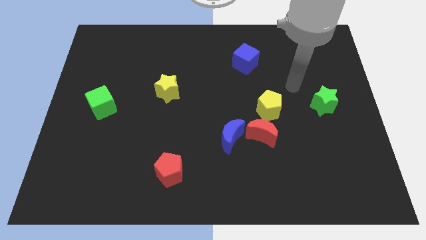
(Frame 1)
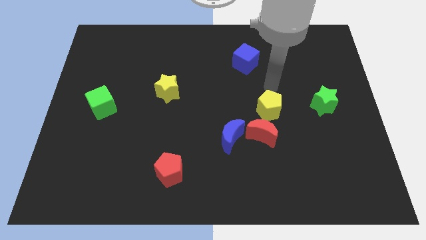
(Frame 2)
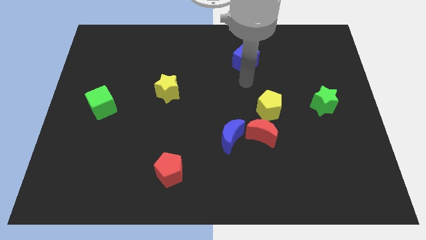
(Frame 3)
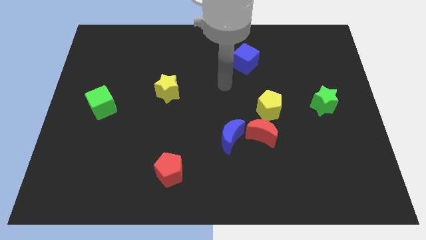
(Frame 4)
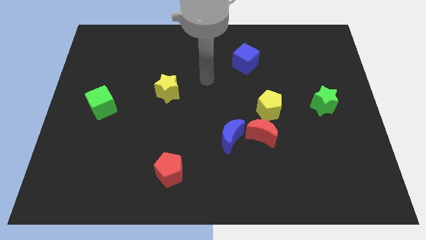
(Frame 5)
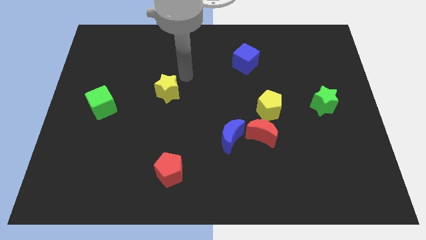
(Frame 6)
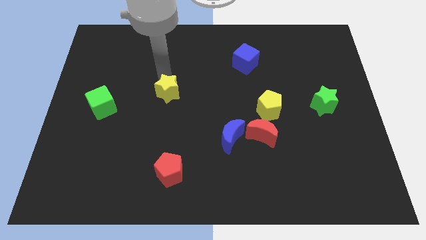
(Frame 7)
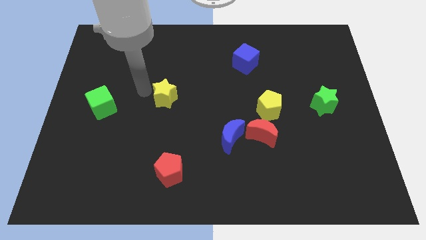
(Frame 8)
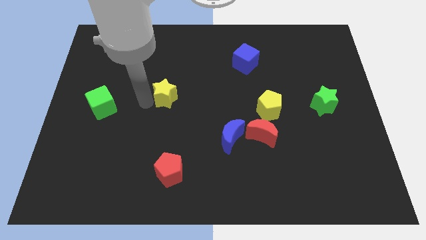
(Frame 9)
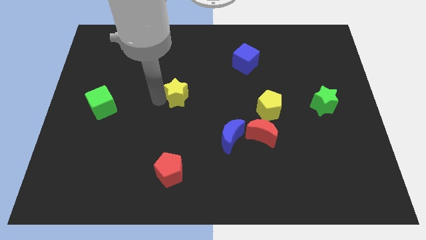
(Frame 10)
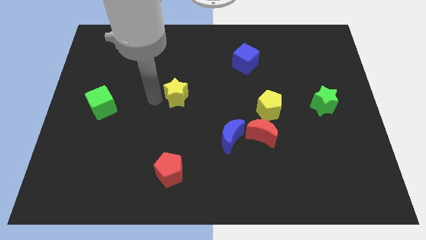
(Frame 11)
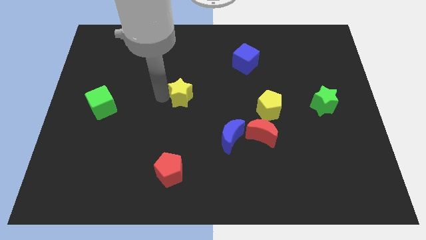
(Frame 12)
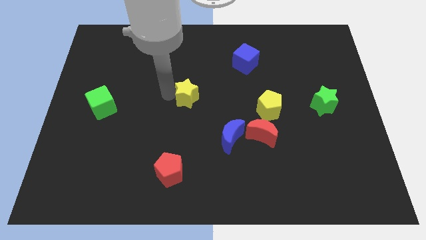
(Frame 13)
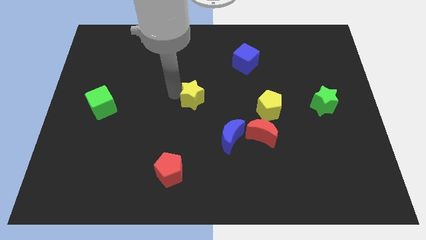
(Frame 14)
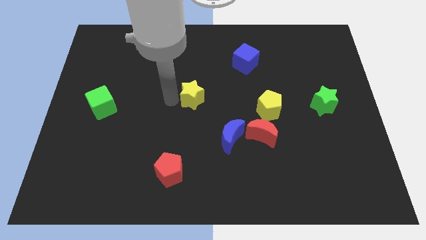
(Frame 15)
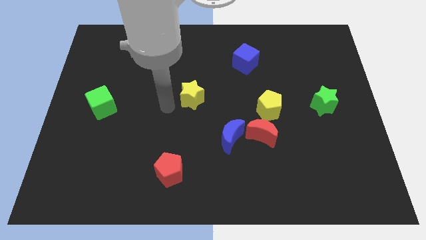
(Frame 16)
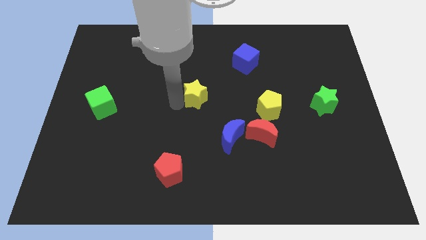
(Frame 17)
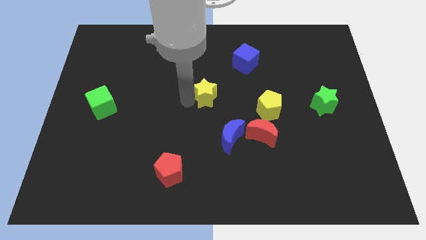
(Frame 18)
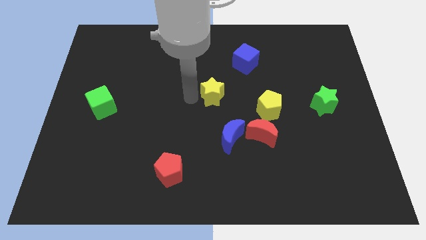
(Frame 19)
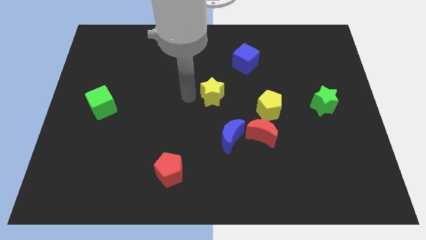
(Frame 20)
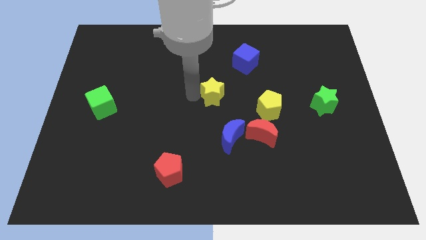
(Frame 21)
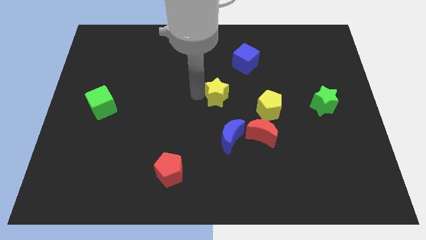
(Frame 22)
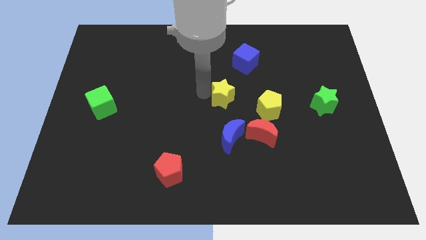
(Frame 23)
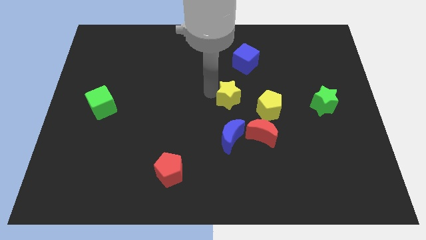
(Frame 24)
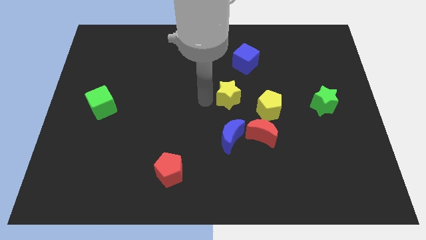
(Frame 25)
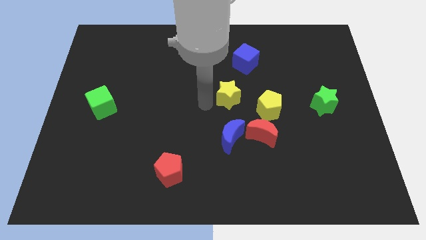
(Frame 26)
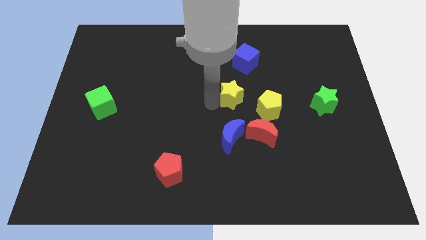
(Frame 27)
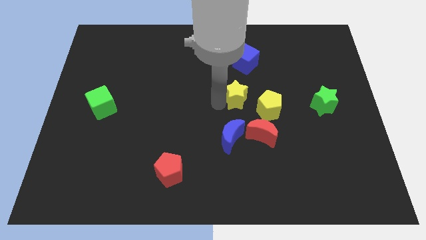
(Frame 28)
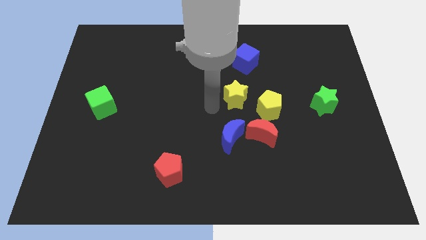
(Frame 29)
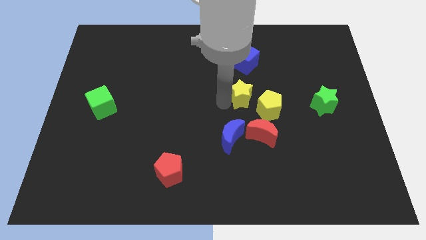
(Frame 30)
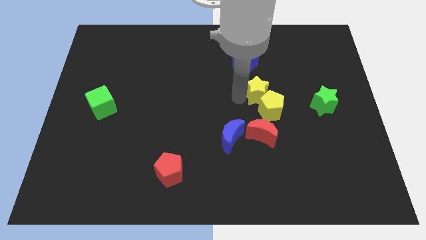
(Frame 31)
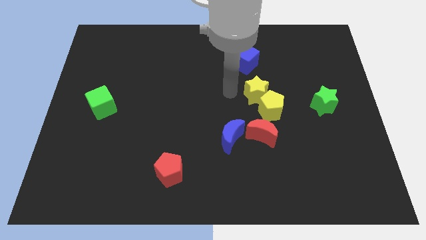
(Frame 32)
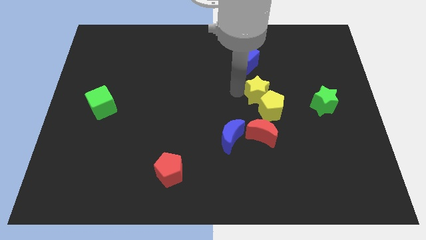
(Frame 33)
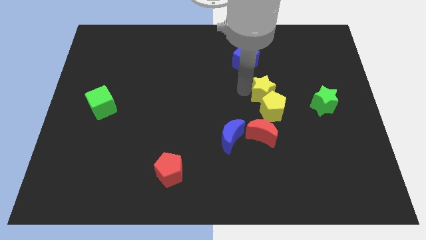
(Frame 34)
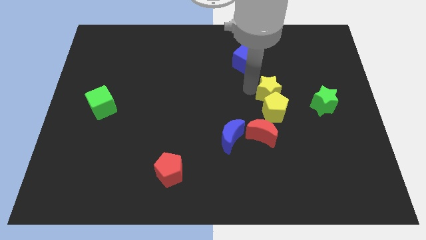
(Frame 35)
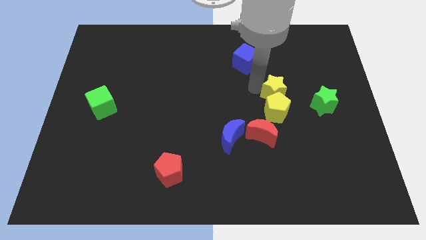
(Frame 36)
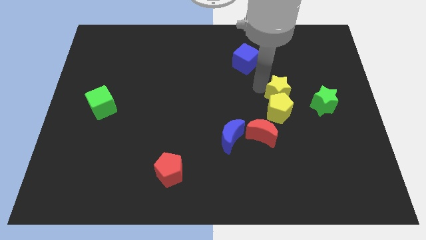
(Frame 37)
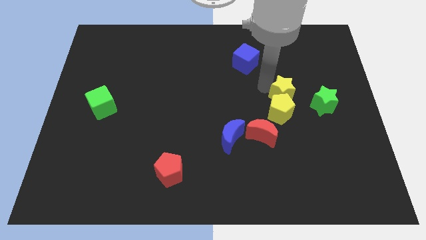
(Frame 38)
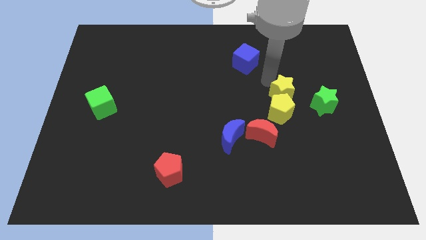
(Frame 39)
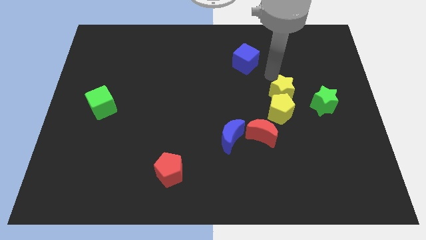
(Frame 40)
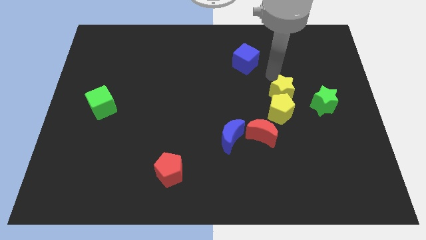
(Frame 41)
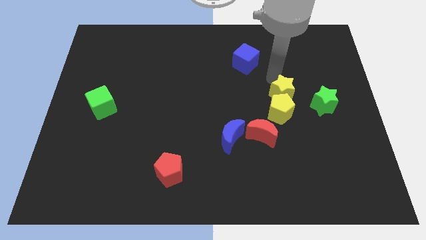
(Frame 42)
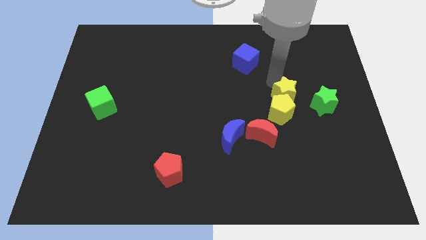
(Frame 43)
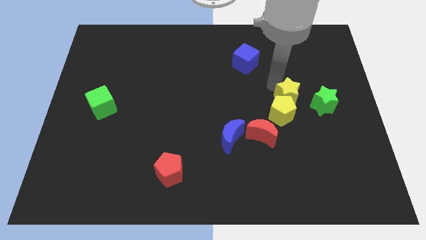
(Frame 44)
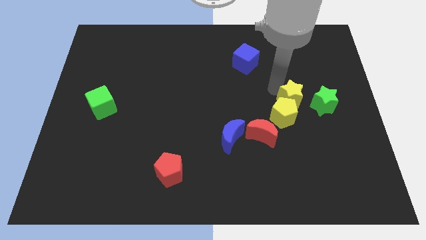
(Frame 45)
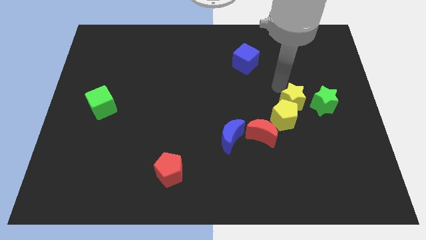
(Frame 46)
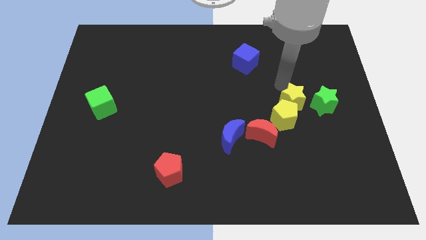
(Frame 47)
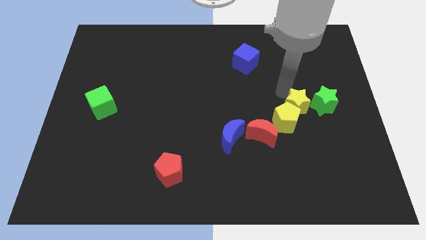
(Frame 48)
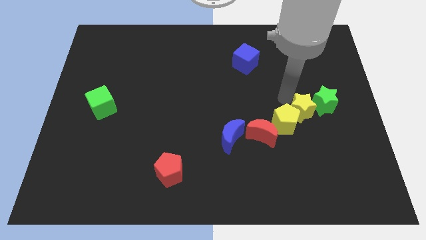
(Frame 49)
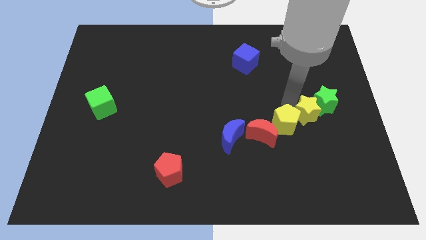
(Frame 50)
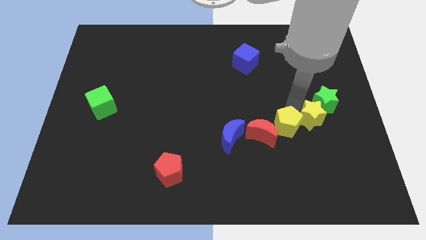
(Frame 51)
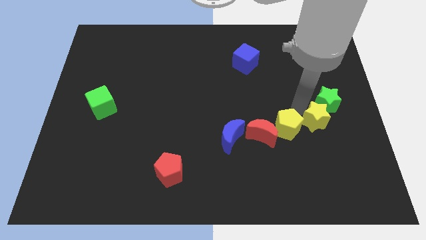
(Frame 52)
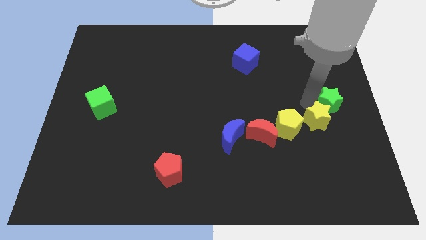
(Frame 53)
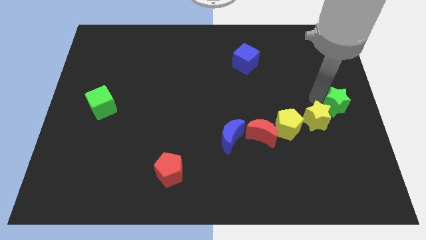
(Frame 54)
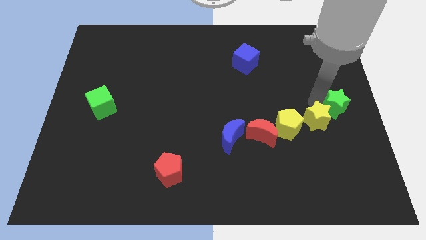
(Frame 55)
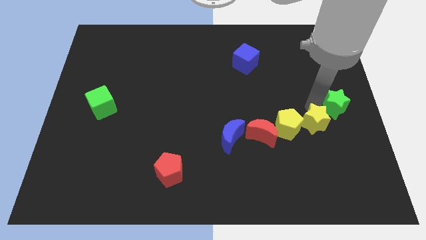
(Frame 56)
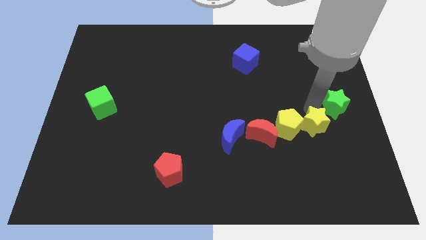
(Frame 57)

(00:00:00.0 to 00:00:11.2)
move the yellow star to the bottom right side of the yellow pentagon

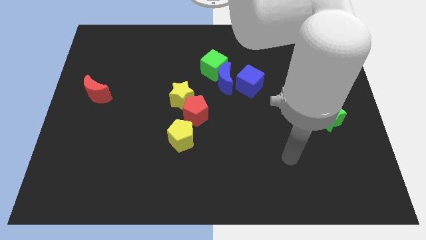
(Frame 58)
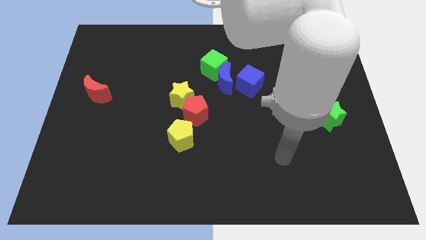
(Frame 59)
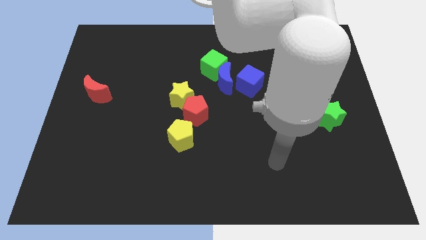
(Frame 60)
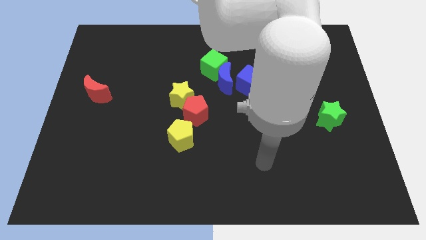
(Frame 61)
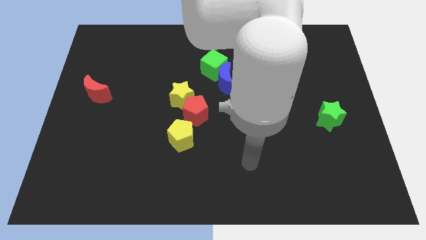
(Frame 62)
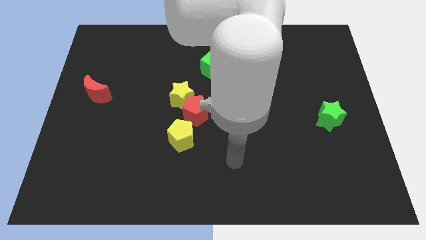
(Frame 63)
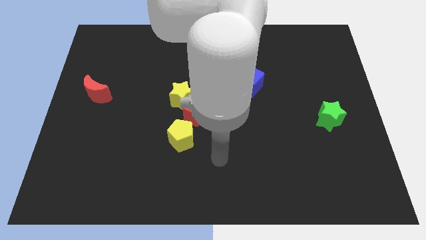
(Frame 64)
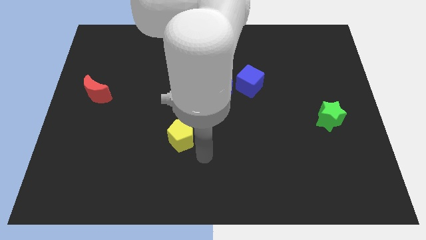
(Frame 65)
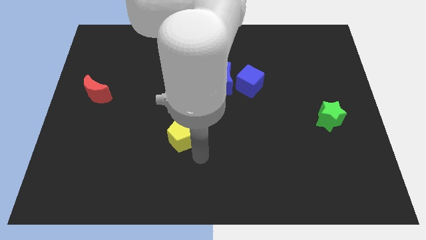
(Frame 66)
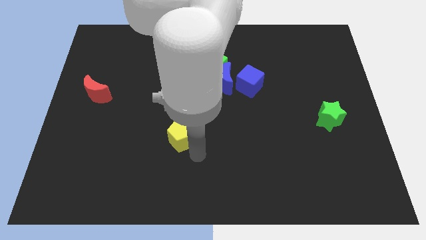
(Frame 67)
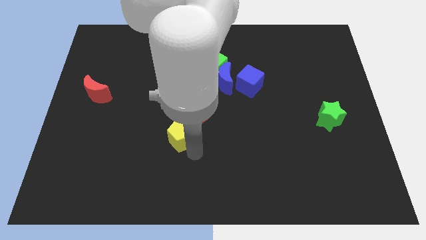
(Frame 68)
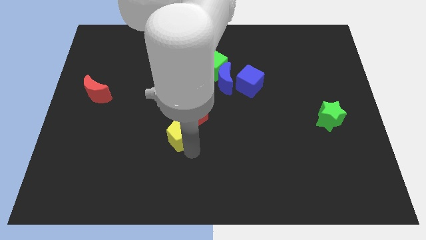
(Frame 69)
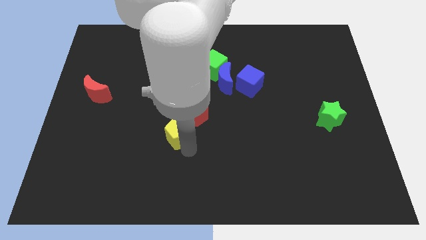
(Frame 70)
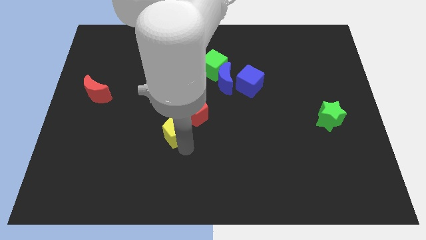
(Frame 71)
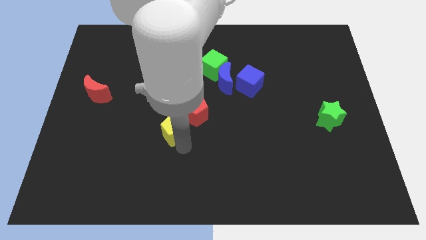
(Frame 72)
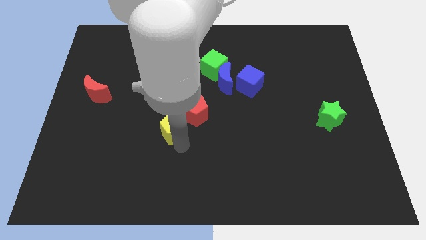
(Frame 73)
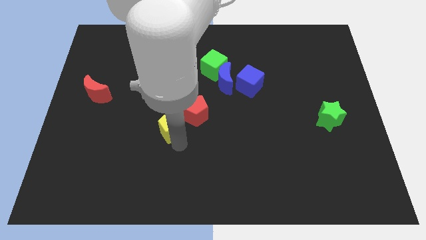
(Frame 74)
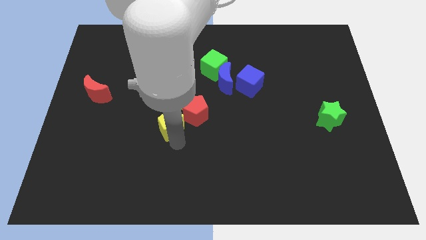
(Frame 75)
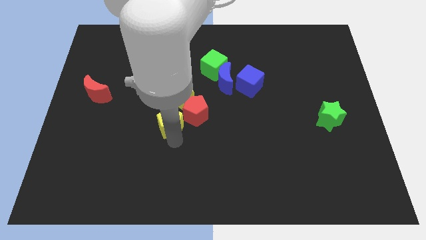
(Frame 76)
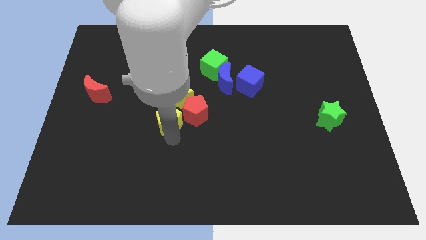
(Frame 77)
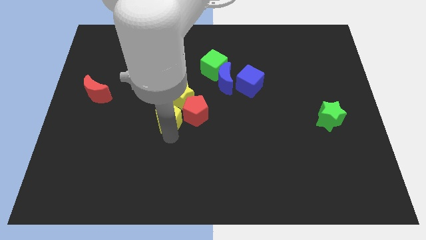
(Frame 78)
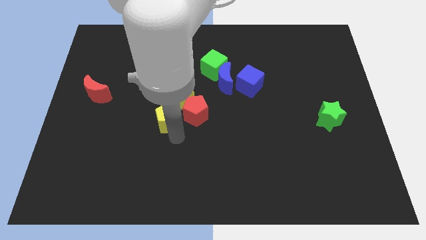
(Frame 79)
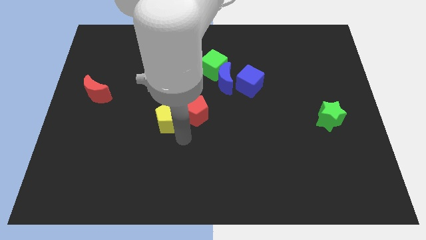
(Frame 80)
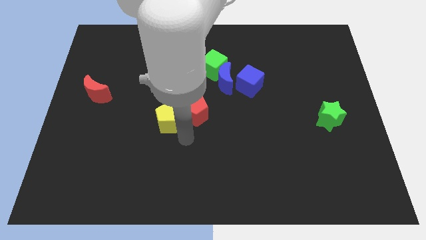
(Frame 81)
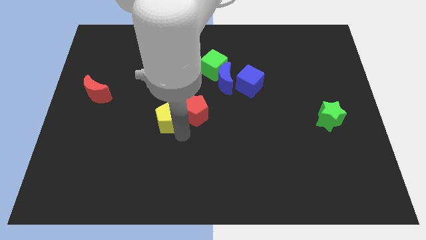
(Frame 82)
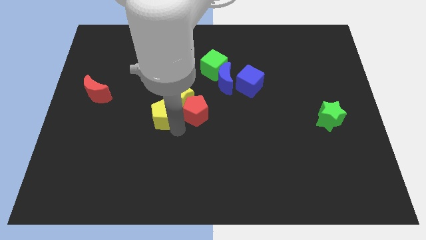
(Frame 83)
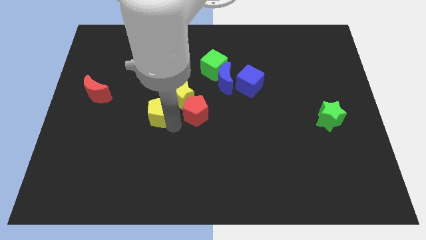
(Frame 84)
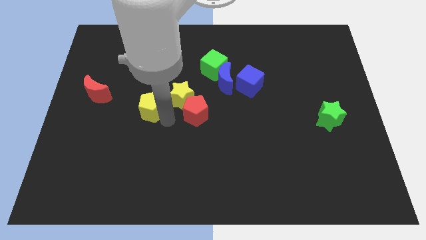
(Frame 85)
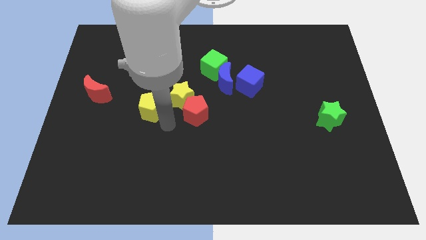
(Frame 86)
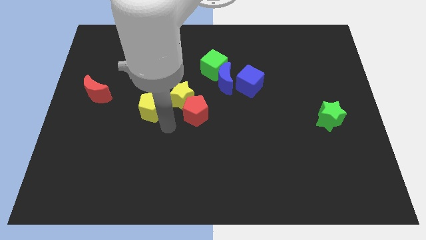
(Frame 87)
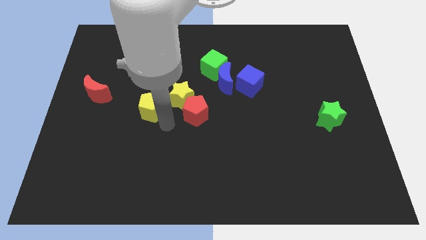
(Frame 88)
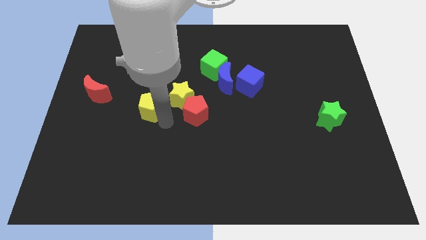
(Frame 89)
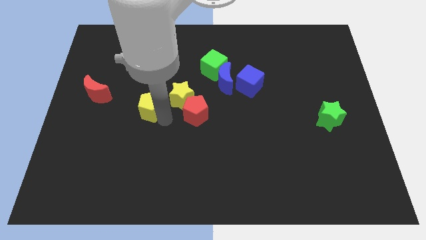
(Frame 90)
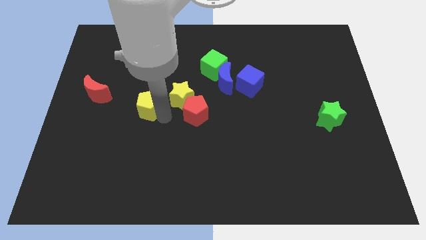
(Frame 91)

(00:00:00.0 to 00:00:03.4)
move the yellow pentagon to the right side of the red moon
